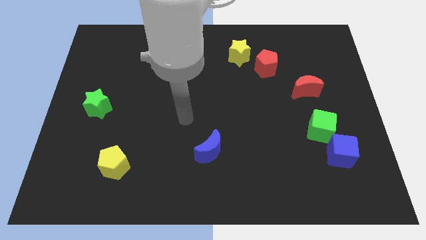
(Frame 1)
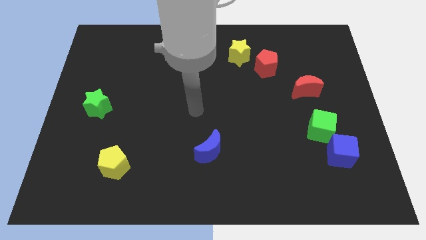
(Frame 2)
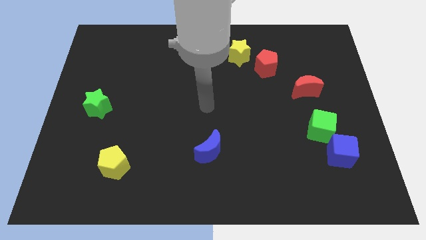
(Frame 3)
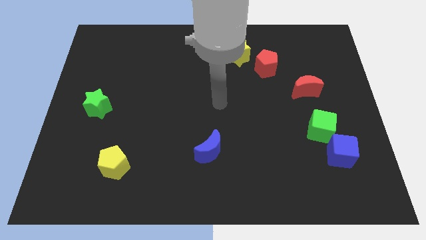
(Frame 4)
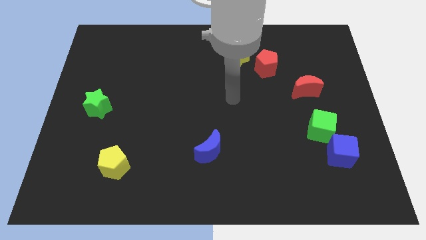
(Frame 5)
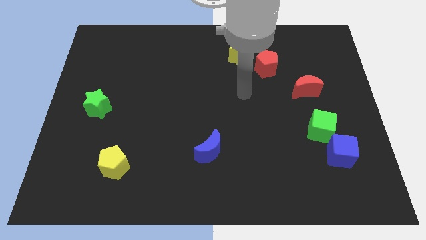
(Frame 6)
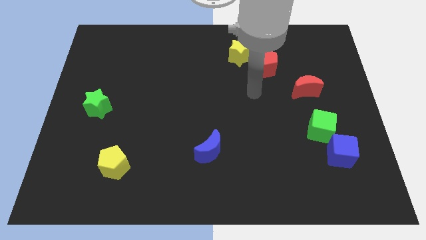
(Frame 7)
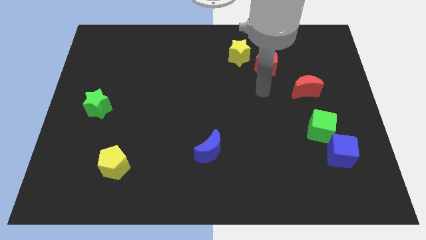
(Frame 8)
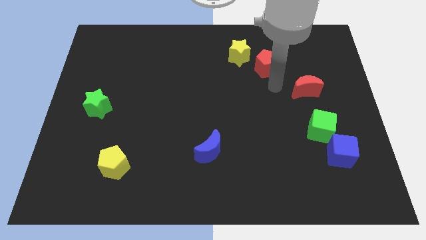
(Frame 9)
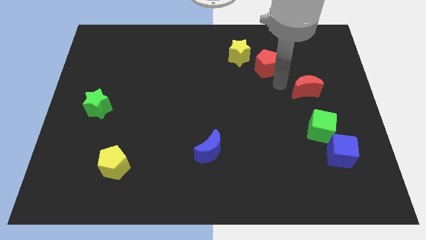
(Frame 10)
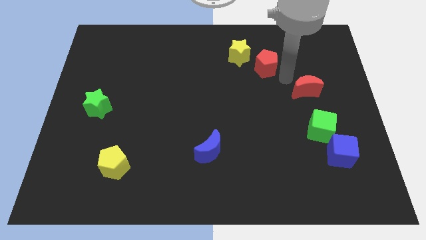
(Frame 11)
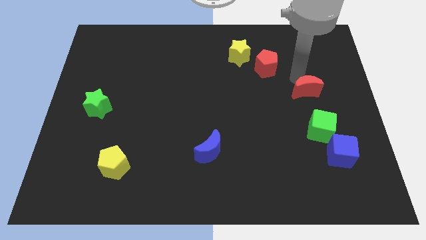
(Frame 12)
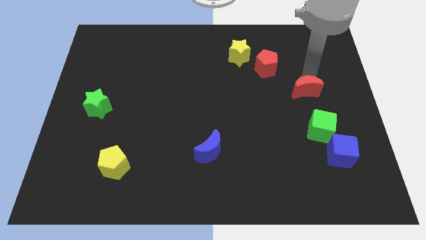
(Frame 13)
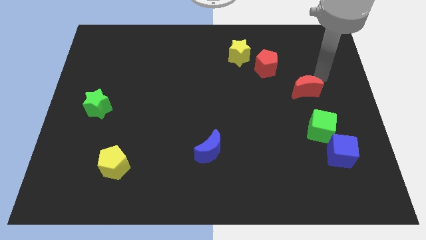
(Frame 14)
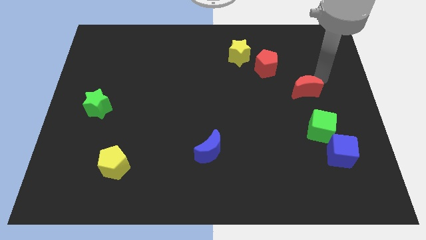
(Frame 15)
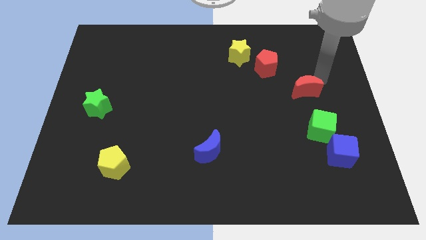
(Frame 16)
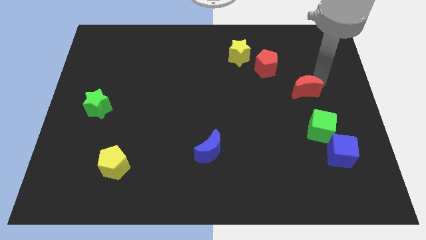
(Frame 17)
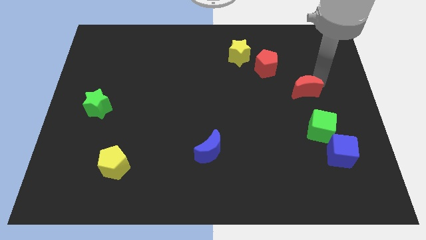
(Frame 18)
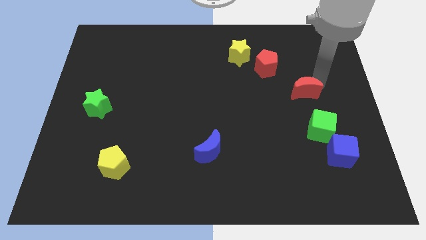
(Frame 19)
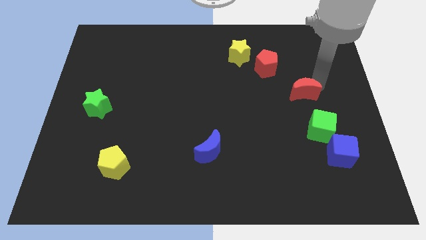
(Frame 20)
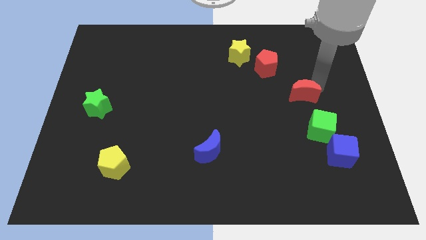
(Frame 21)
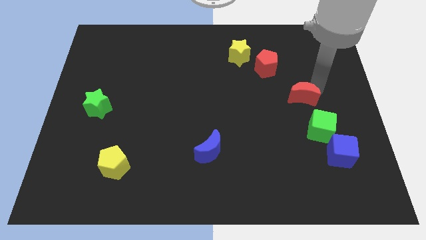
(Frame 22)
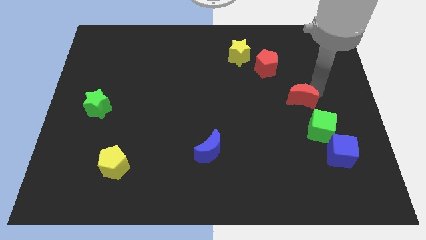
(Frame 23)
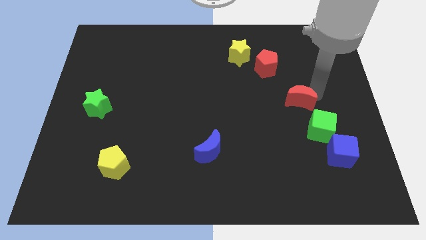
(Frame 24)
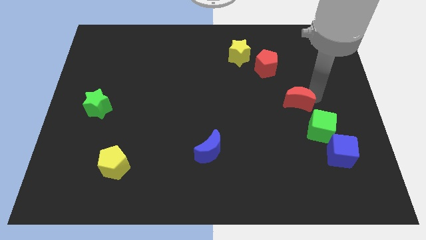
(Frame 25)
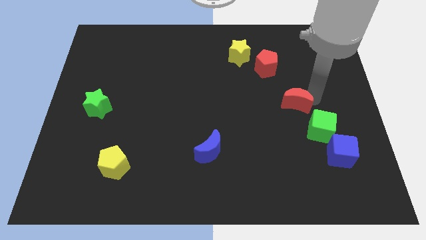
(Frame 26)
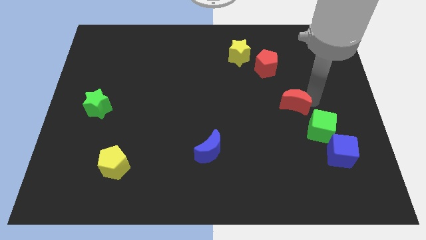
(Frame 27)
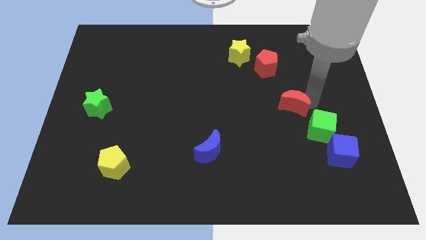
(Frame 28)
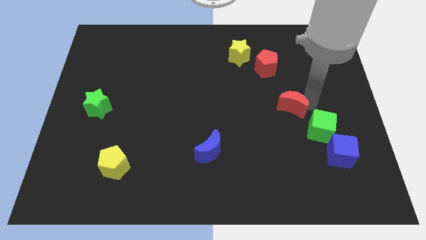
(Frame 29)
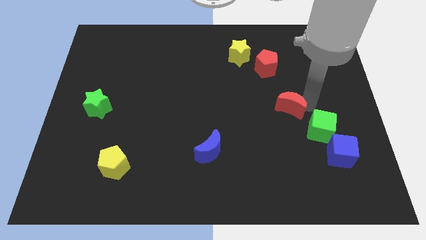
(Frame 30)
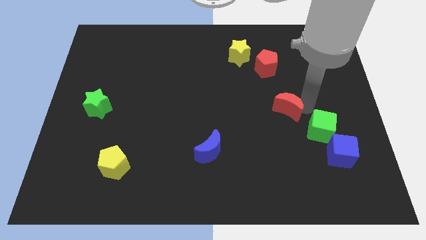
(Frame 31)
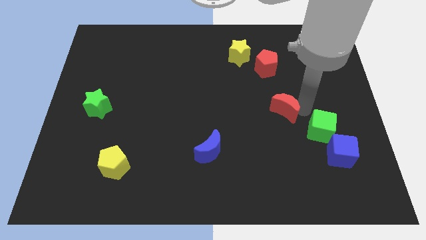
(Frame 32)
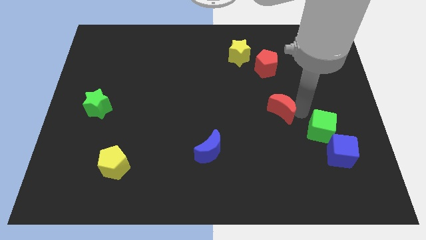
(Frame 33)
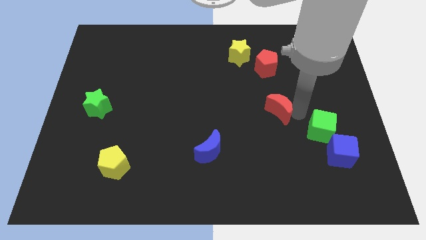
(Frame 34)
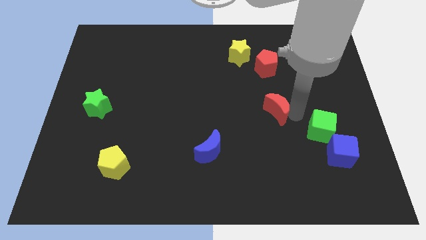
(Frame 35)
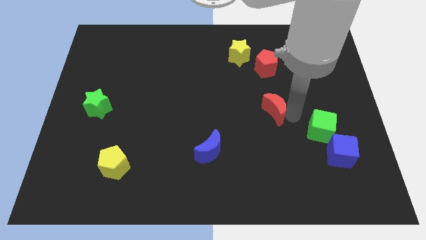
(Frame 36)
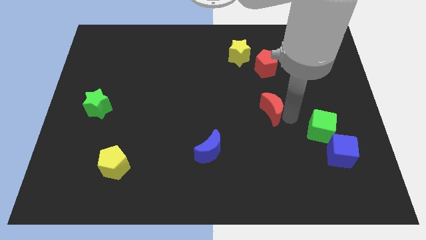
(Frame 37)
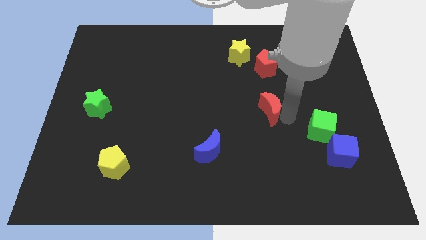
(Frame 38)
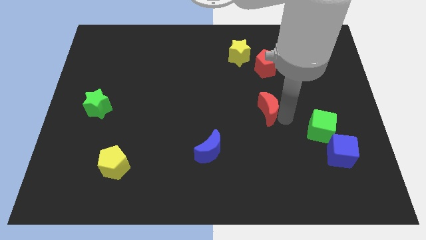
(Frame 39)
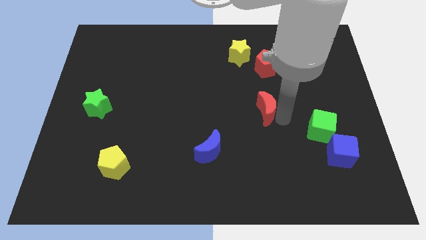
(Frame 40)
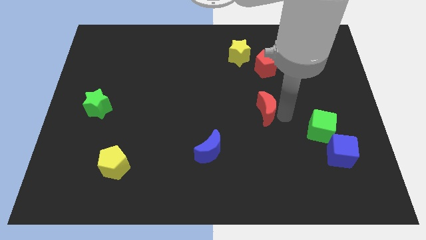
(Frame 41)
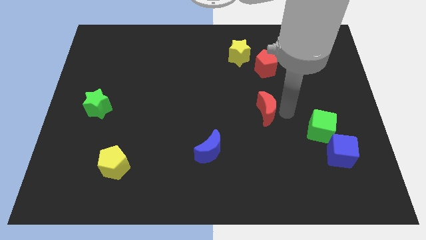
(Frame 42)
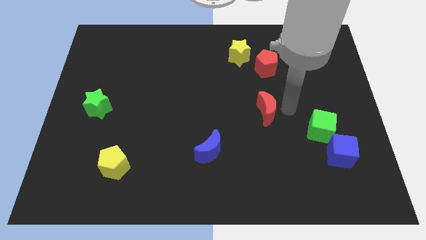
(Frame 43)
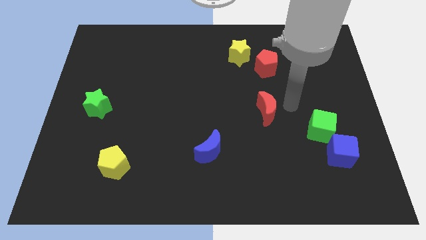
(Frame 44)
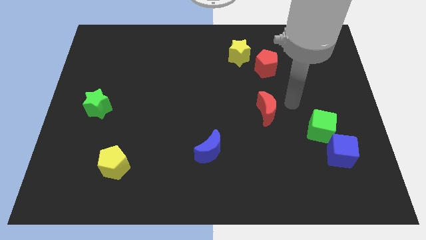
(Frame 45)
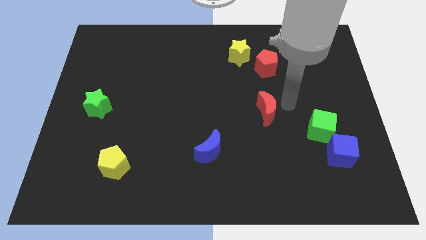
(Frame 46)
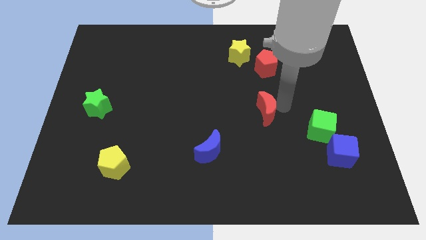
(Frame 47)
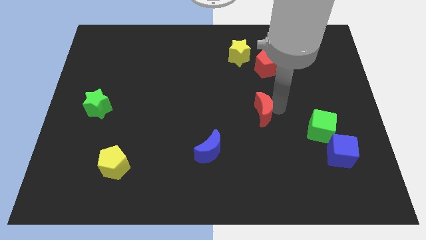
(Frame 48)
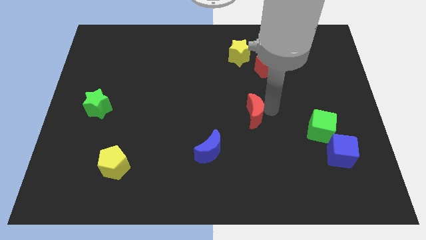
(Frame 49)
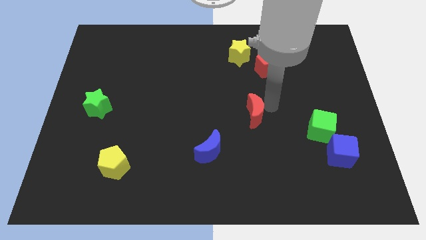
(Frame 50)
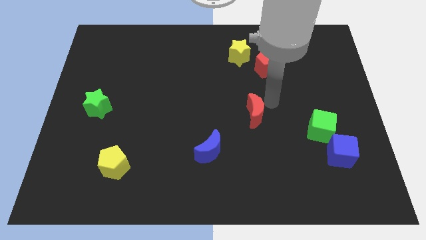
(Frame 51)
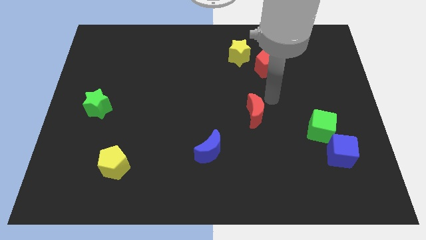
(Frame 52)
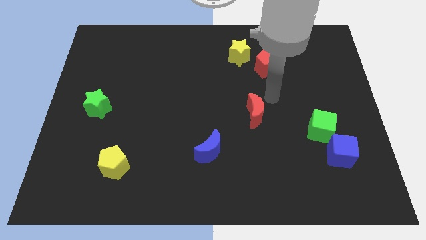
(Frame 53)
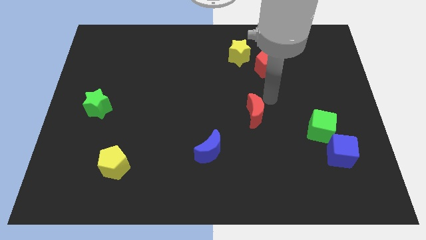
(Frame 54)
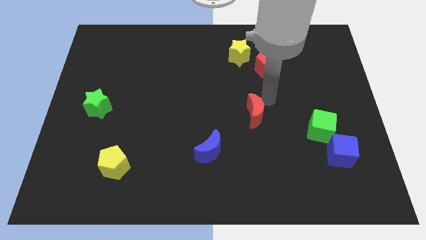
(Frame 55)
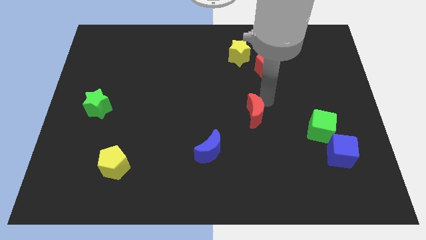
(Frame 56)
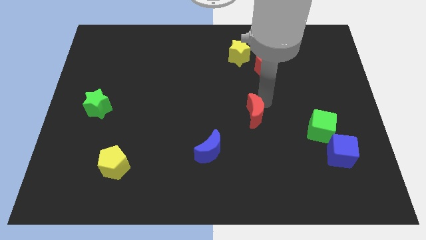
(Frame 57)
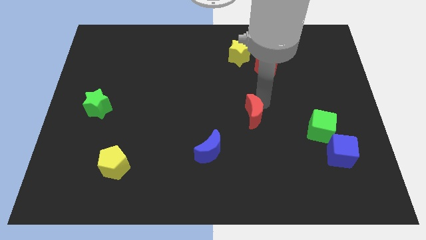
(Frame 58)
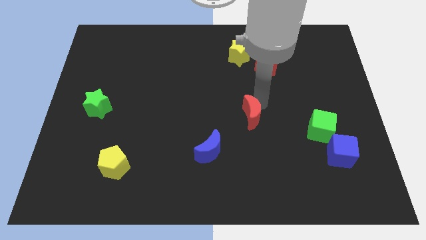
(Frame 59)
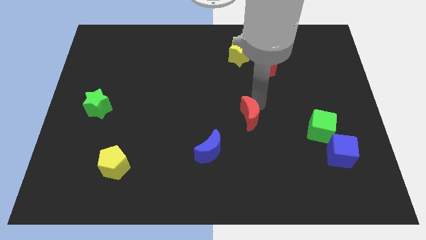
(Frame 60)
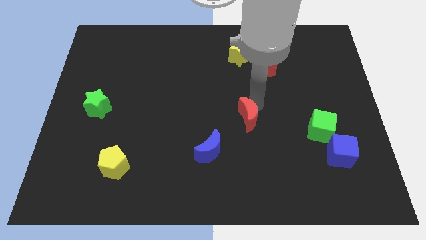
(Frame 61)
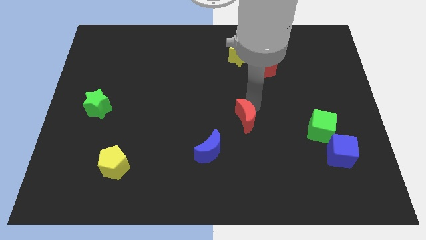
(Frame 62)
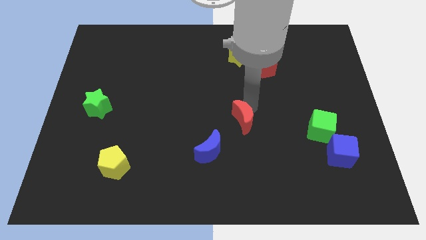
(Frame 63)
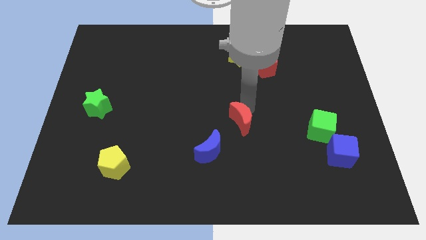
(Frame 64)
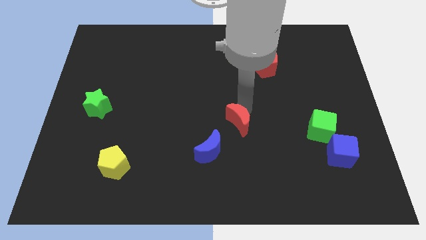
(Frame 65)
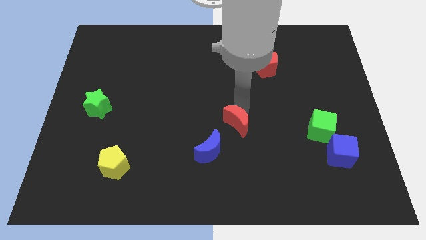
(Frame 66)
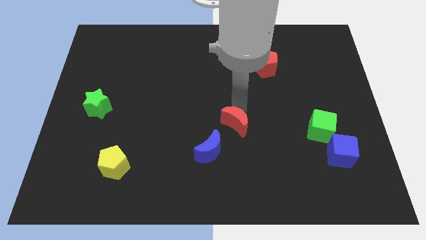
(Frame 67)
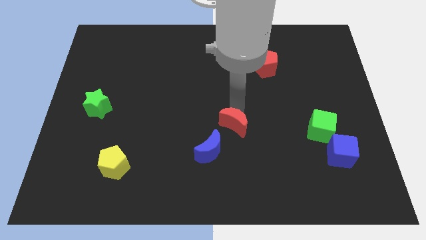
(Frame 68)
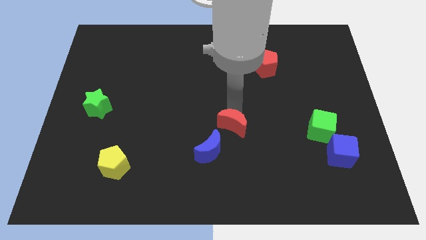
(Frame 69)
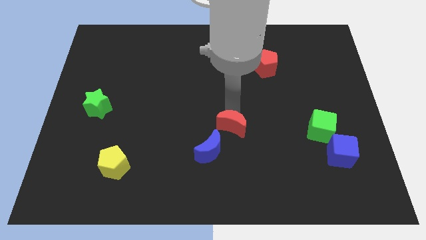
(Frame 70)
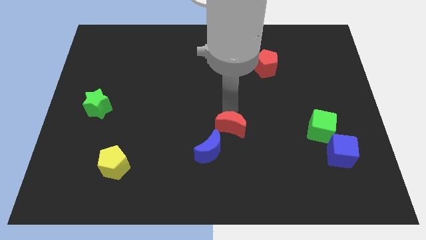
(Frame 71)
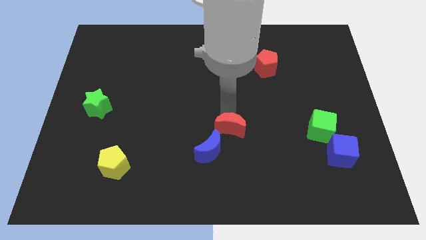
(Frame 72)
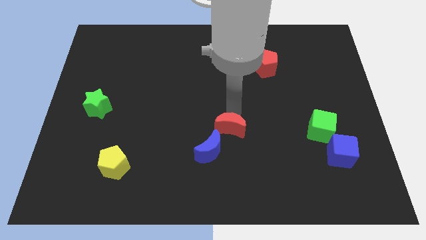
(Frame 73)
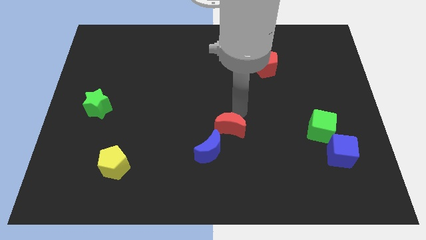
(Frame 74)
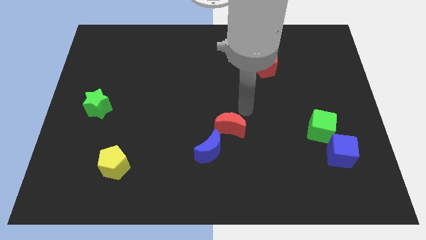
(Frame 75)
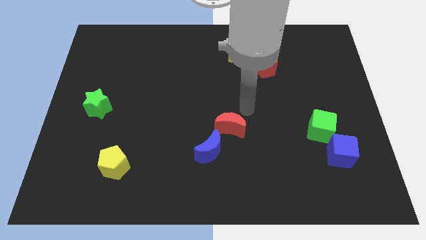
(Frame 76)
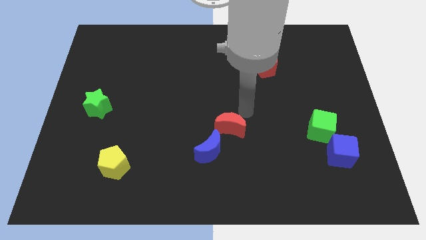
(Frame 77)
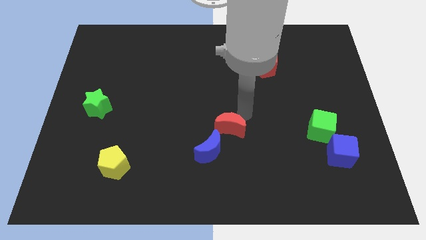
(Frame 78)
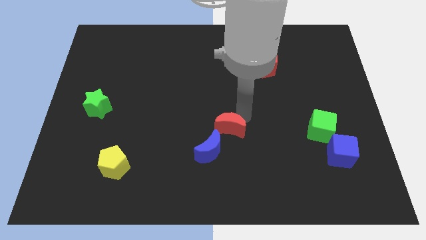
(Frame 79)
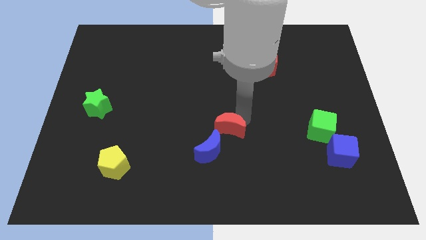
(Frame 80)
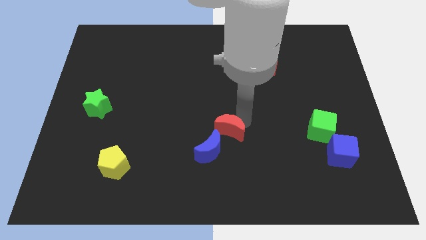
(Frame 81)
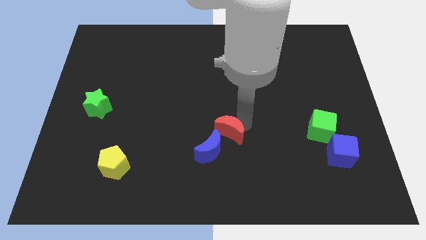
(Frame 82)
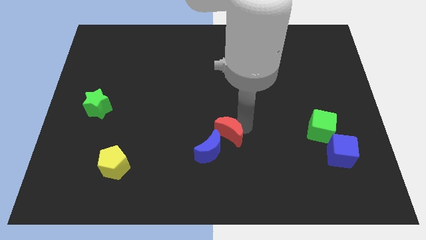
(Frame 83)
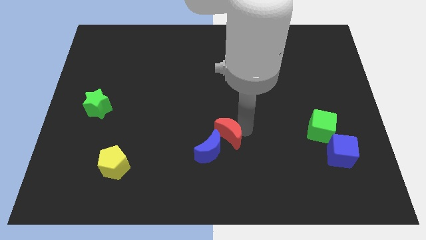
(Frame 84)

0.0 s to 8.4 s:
put the red moon to the blue moon
